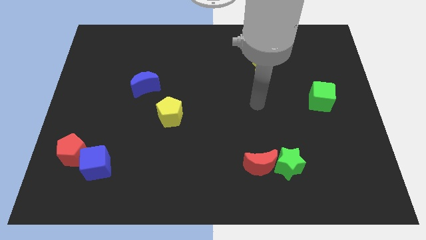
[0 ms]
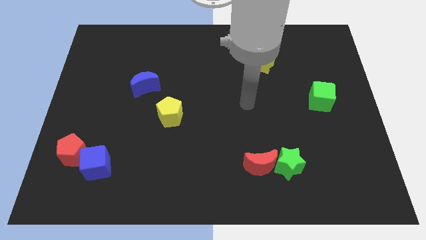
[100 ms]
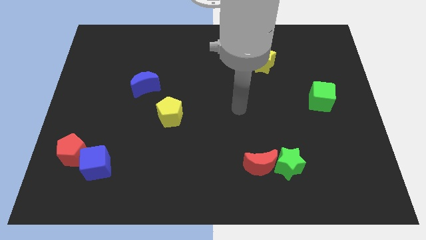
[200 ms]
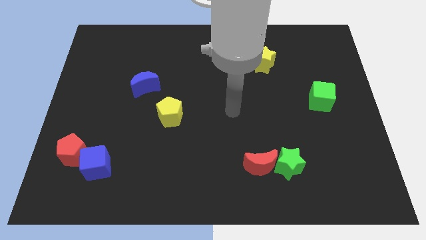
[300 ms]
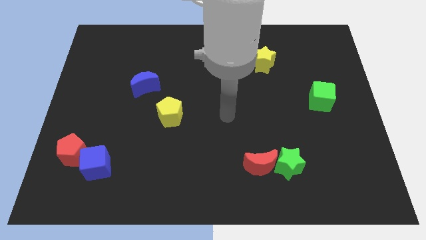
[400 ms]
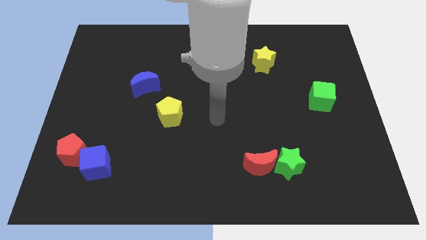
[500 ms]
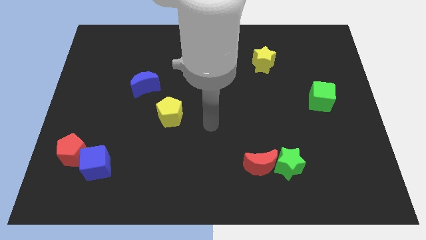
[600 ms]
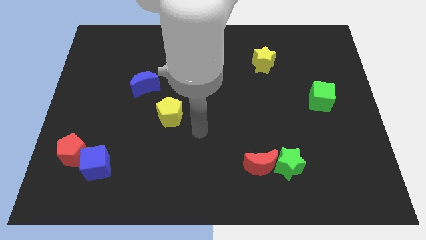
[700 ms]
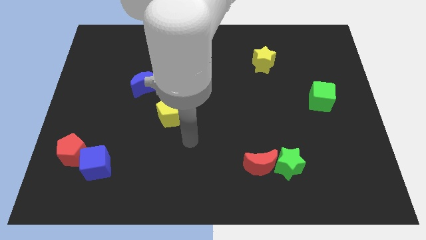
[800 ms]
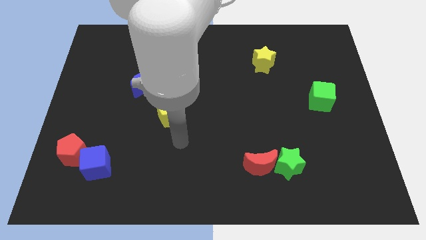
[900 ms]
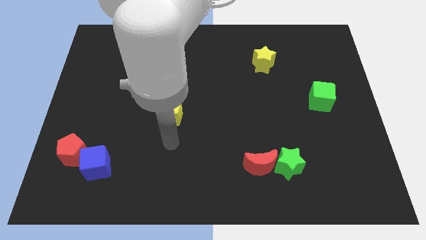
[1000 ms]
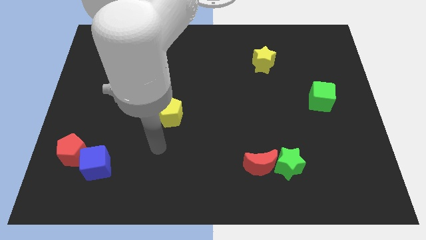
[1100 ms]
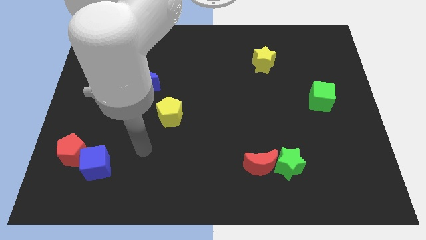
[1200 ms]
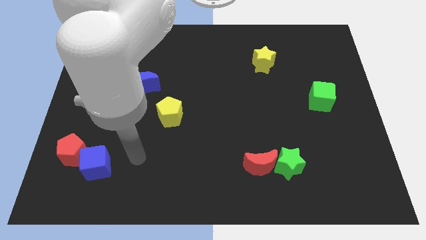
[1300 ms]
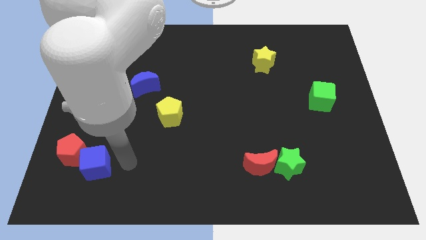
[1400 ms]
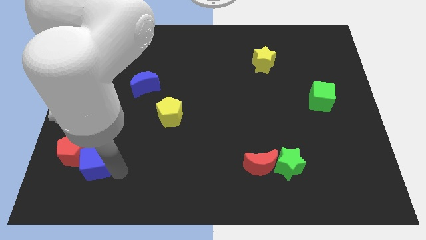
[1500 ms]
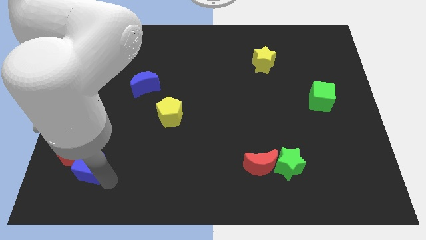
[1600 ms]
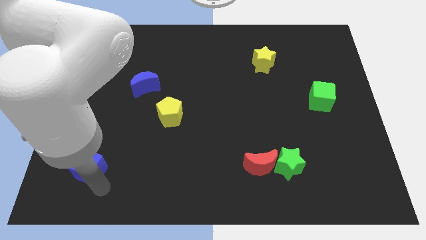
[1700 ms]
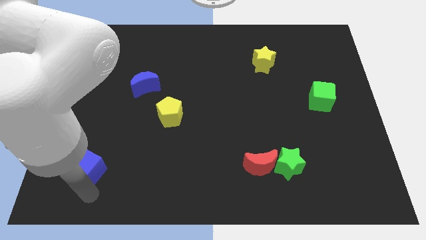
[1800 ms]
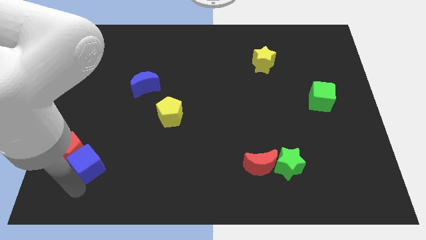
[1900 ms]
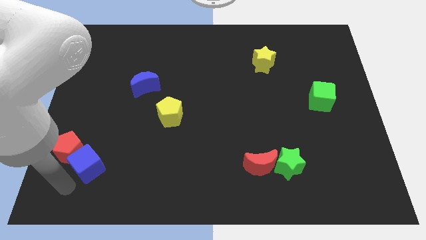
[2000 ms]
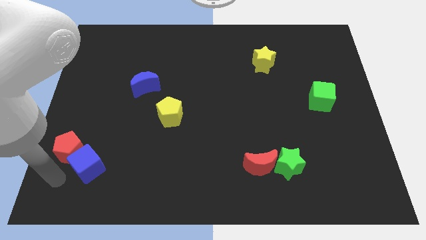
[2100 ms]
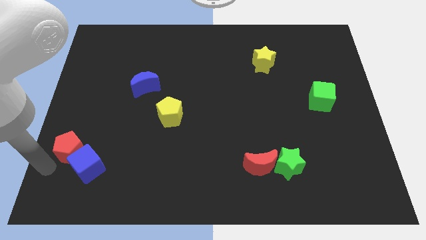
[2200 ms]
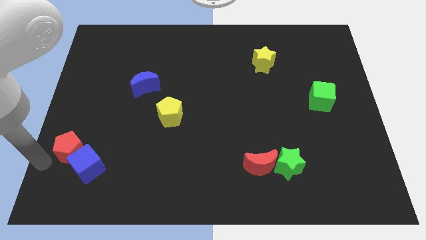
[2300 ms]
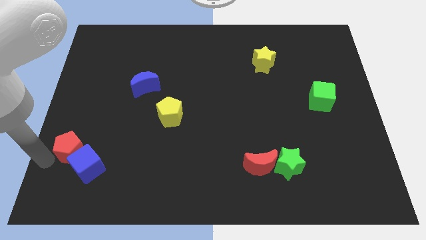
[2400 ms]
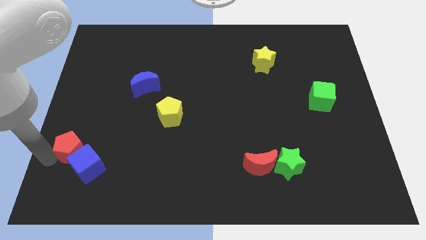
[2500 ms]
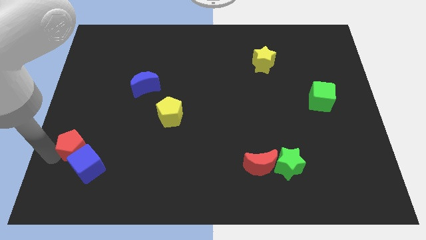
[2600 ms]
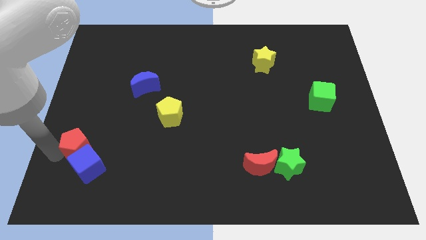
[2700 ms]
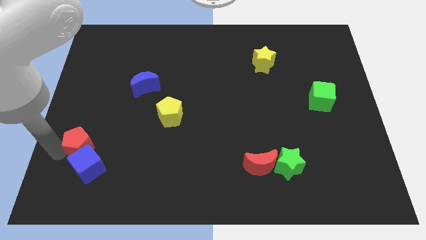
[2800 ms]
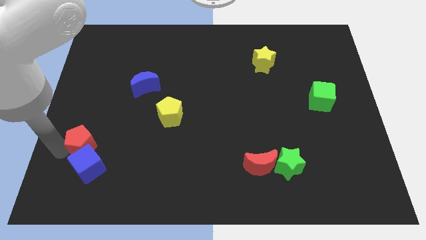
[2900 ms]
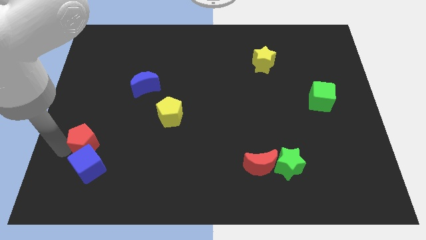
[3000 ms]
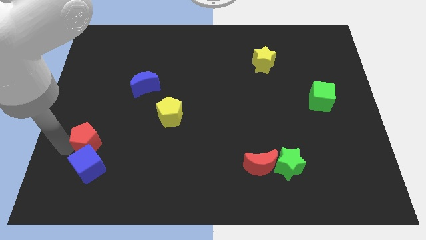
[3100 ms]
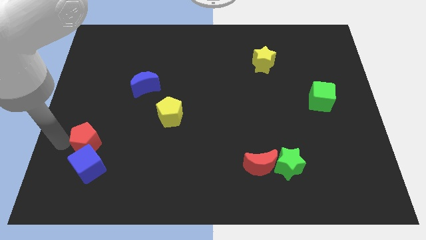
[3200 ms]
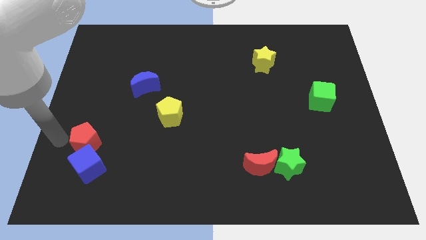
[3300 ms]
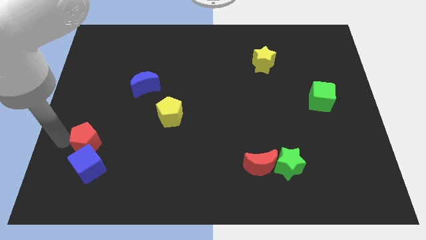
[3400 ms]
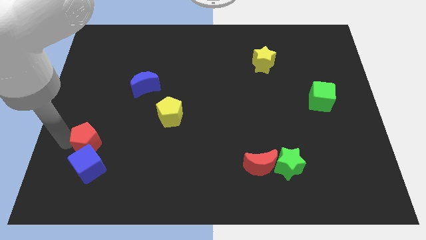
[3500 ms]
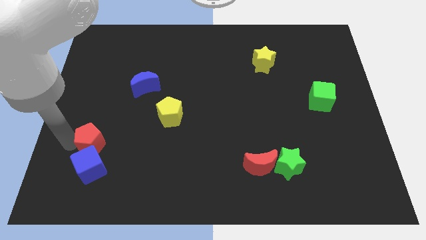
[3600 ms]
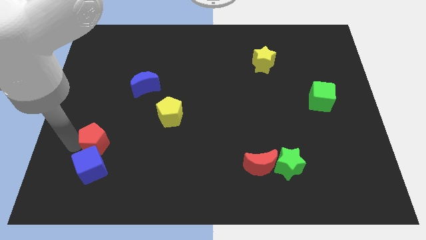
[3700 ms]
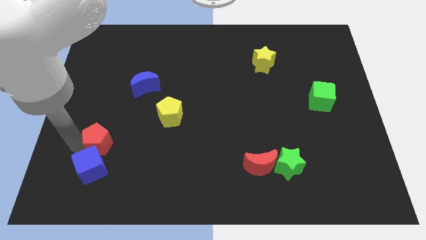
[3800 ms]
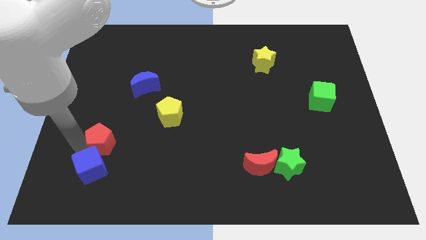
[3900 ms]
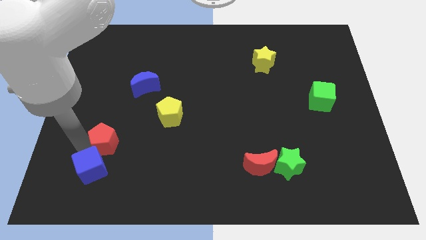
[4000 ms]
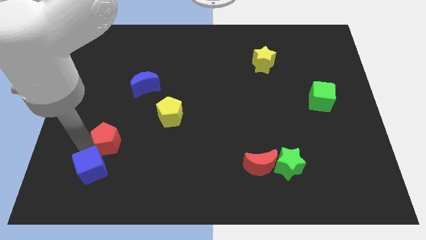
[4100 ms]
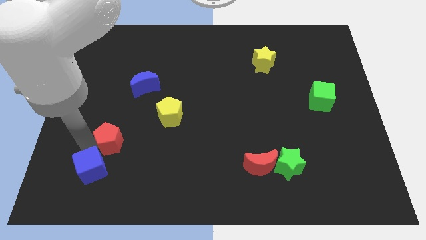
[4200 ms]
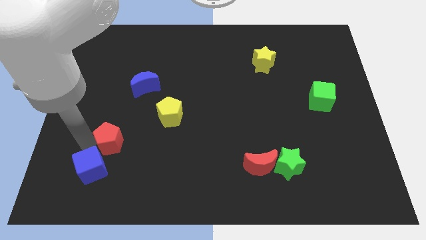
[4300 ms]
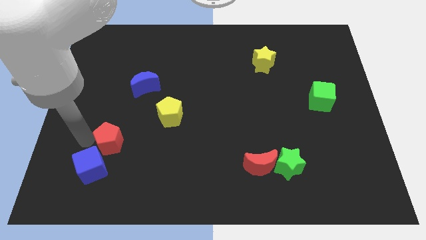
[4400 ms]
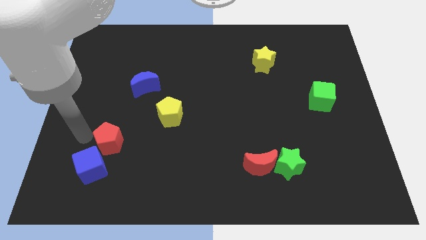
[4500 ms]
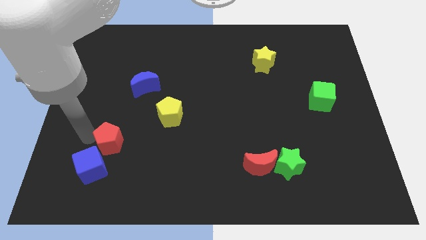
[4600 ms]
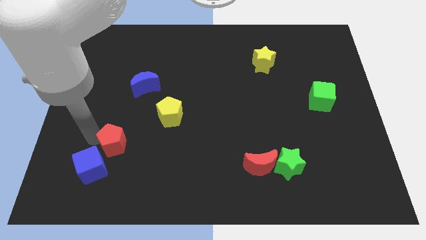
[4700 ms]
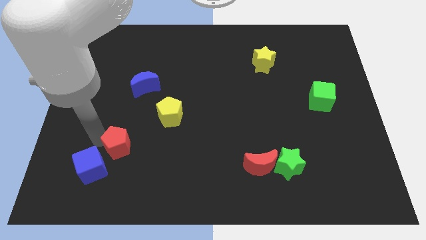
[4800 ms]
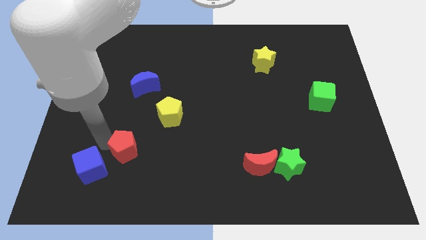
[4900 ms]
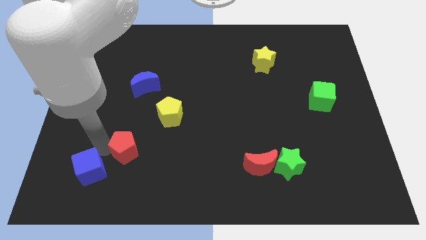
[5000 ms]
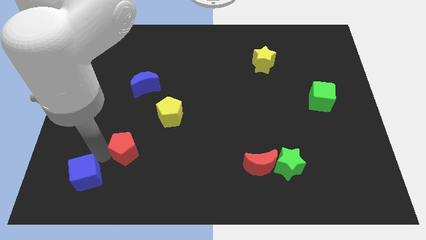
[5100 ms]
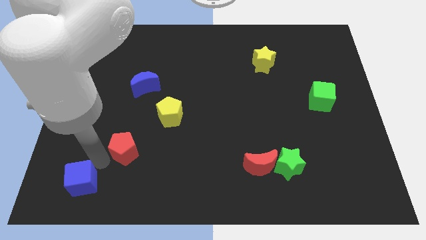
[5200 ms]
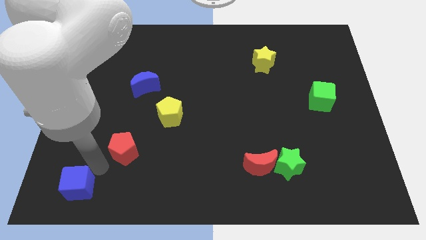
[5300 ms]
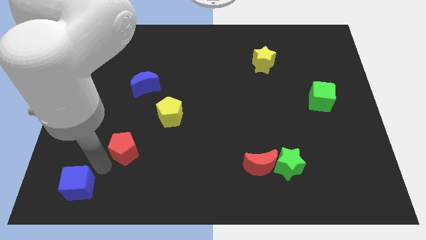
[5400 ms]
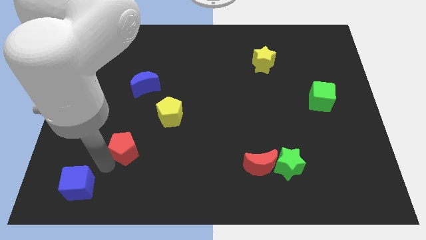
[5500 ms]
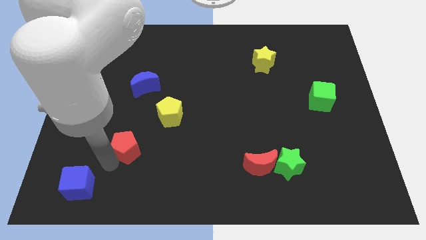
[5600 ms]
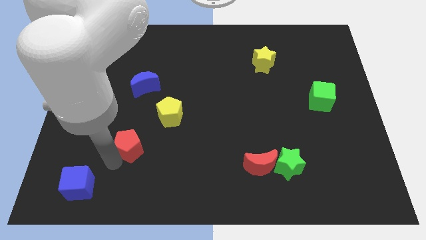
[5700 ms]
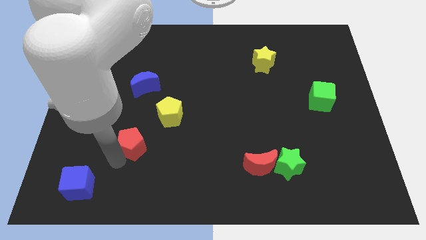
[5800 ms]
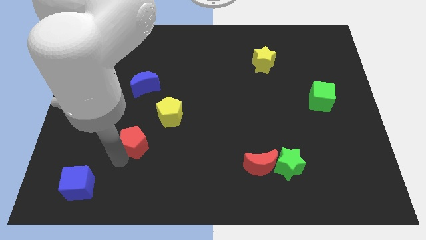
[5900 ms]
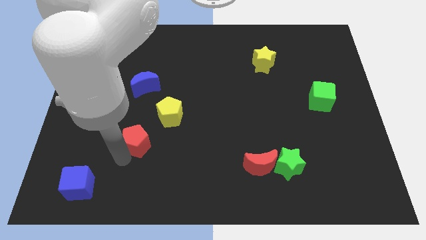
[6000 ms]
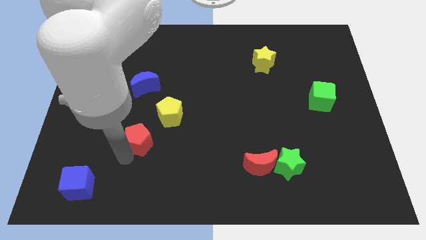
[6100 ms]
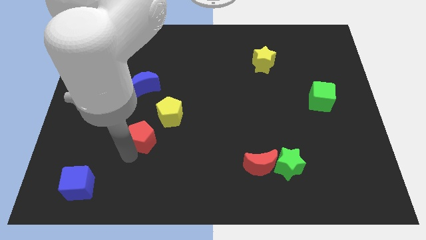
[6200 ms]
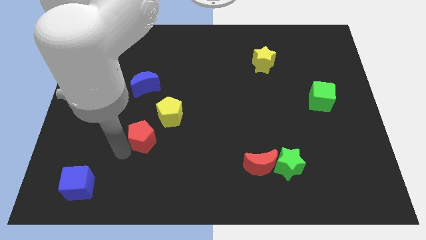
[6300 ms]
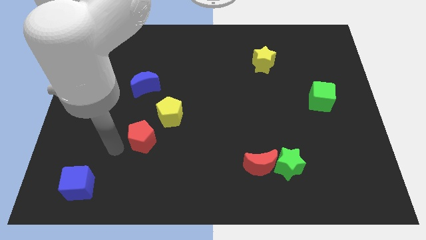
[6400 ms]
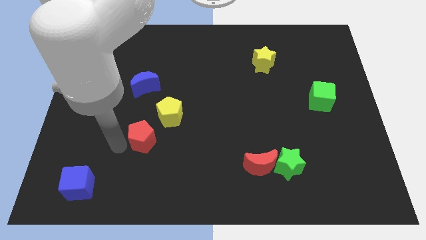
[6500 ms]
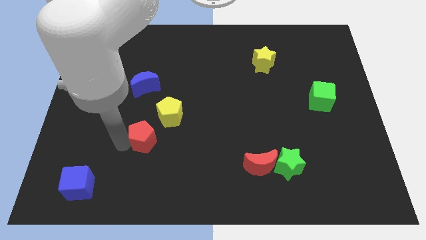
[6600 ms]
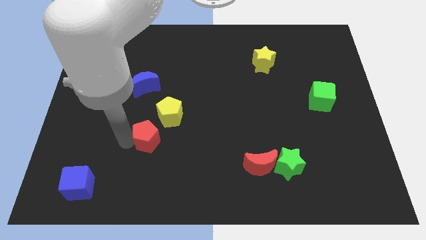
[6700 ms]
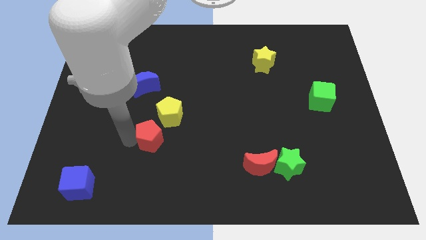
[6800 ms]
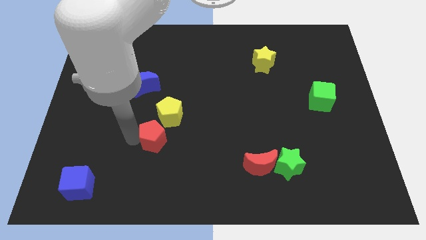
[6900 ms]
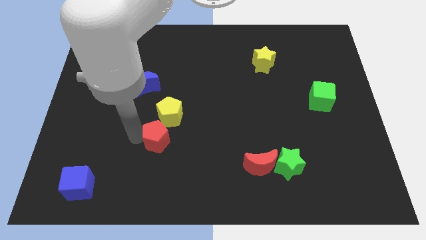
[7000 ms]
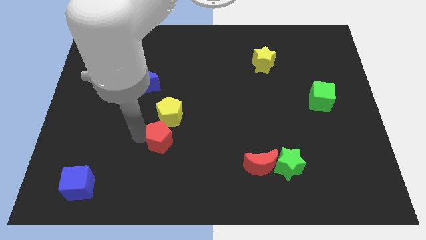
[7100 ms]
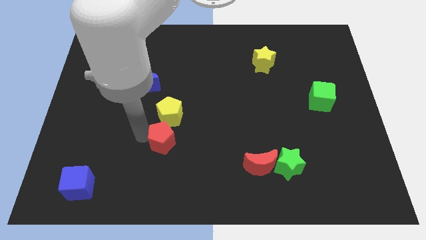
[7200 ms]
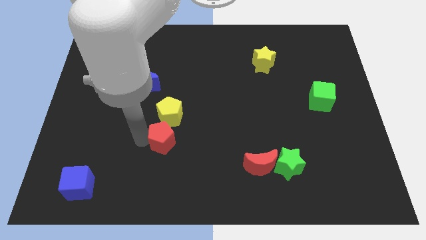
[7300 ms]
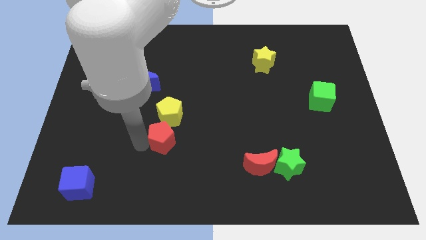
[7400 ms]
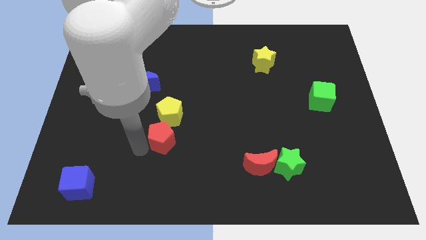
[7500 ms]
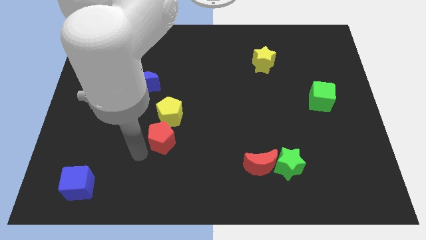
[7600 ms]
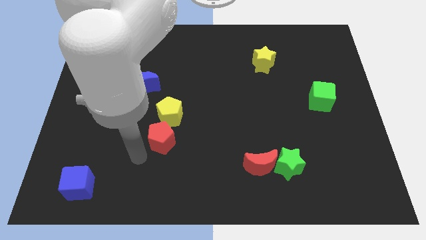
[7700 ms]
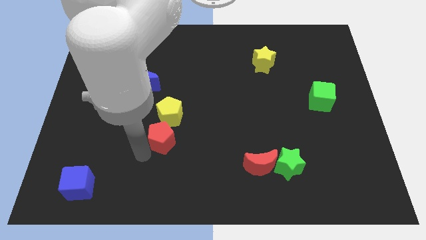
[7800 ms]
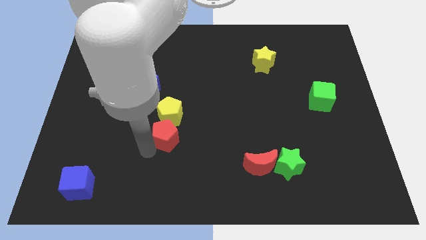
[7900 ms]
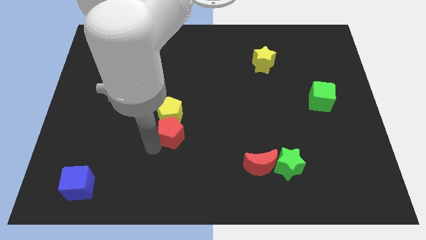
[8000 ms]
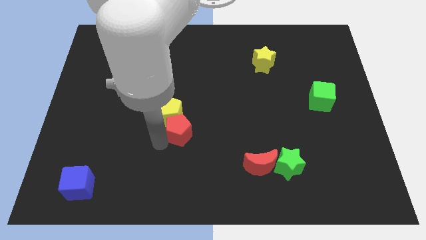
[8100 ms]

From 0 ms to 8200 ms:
put the red pentagon to the middle
